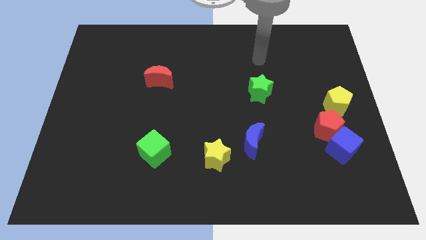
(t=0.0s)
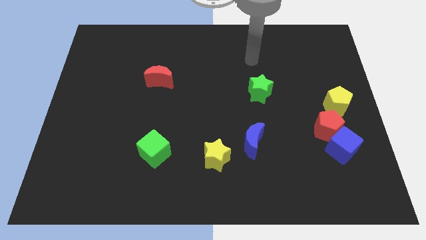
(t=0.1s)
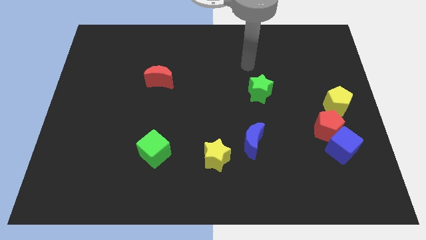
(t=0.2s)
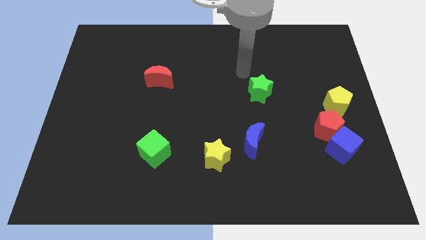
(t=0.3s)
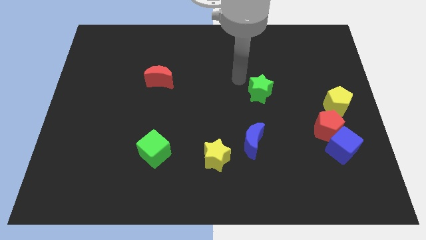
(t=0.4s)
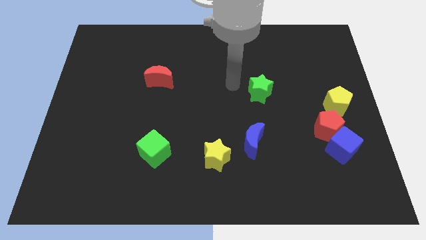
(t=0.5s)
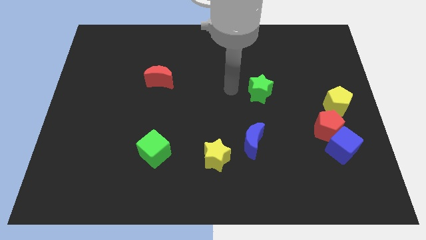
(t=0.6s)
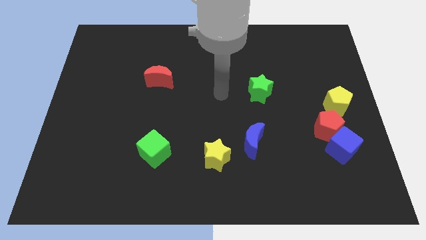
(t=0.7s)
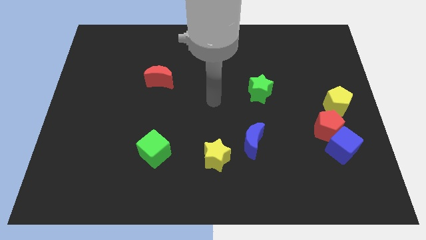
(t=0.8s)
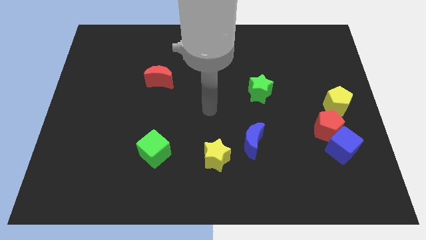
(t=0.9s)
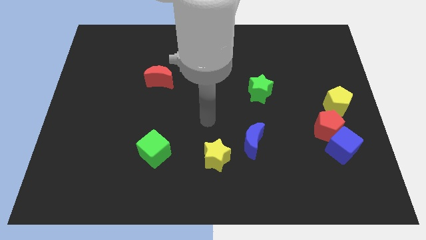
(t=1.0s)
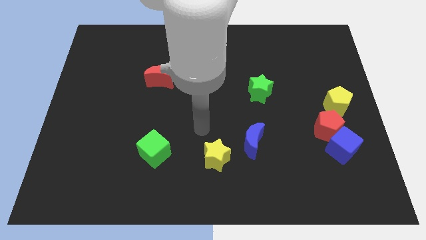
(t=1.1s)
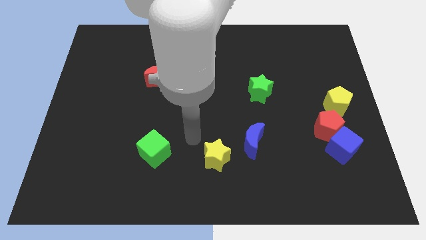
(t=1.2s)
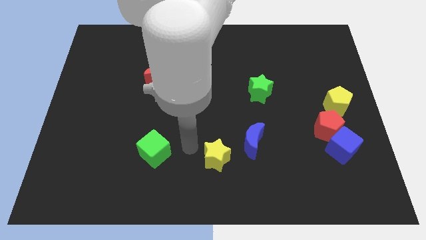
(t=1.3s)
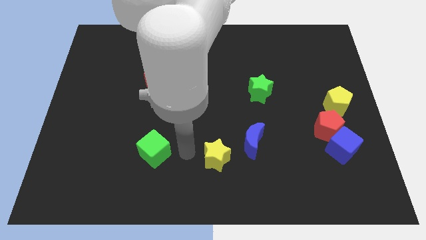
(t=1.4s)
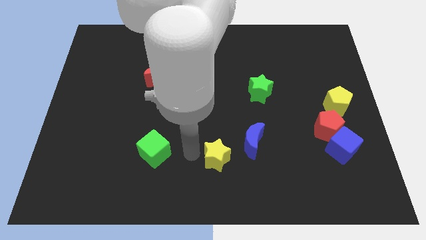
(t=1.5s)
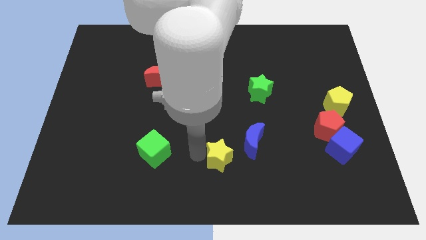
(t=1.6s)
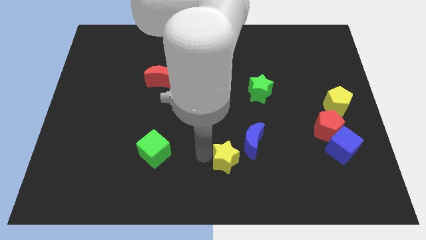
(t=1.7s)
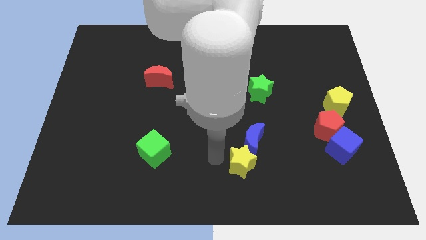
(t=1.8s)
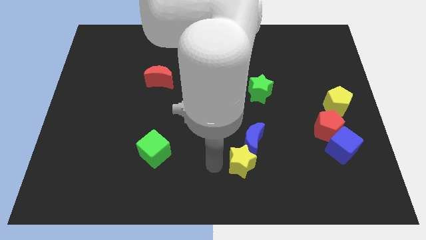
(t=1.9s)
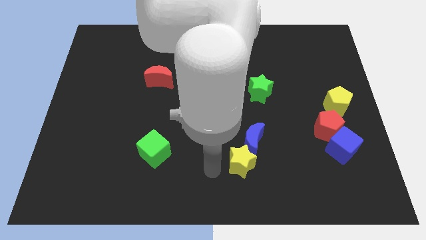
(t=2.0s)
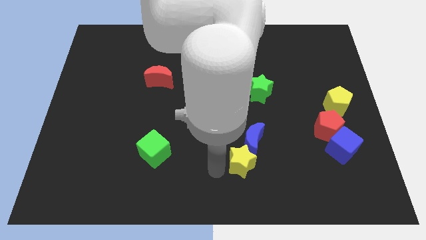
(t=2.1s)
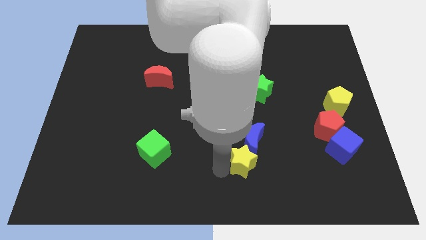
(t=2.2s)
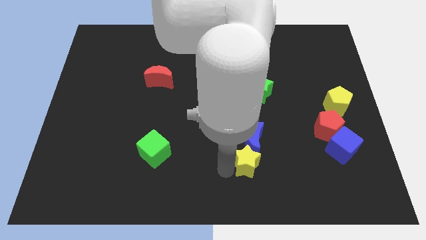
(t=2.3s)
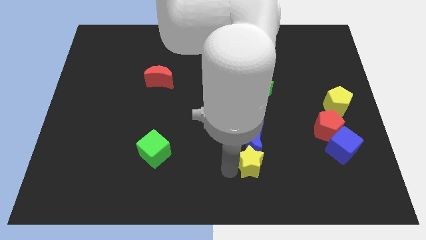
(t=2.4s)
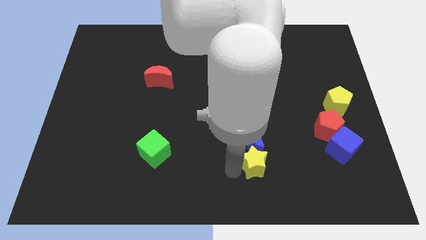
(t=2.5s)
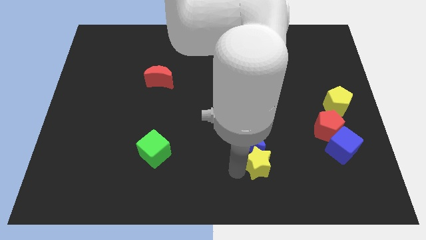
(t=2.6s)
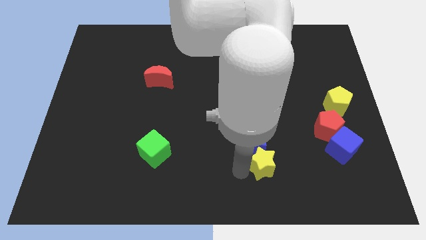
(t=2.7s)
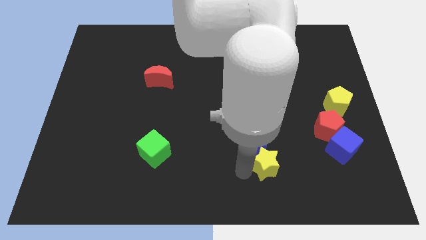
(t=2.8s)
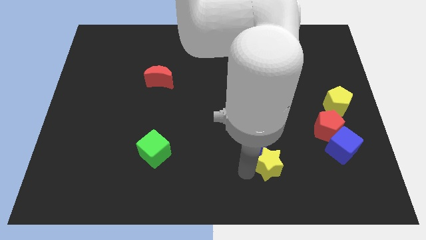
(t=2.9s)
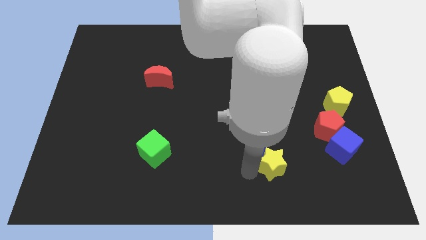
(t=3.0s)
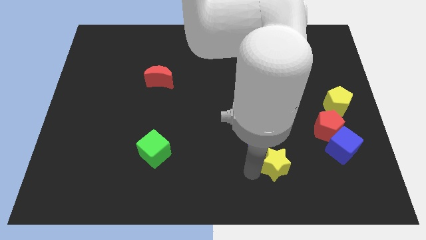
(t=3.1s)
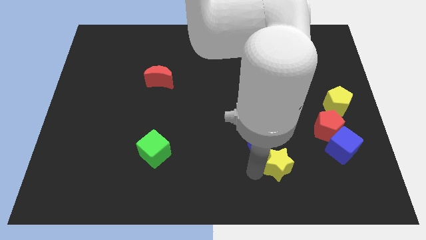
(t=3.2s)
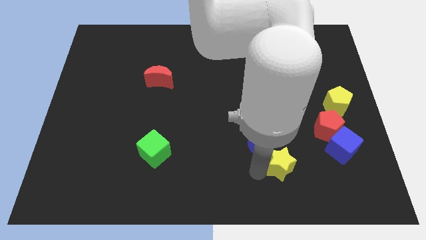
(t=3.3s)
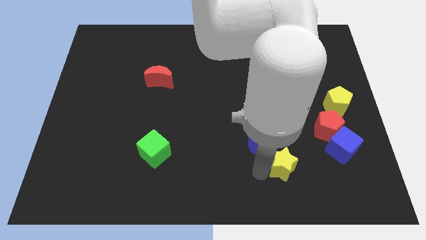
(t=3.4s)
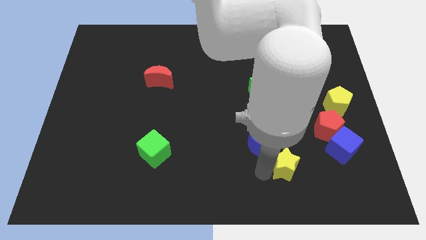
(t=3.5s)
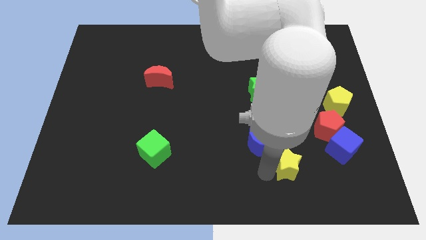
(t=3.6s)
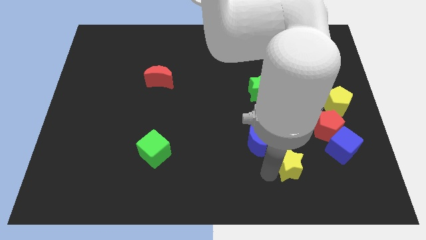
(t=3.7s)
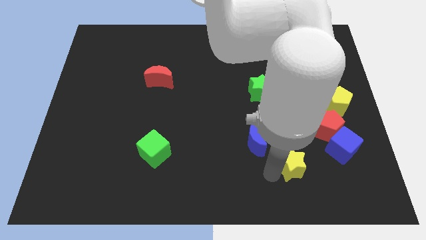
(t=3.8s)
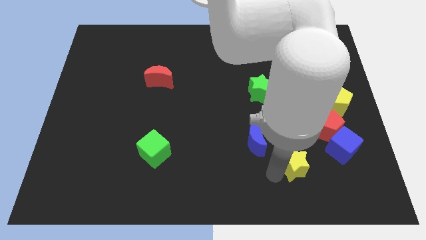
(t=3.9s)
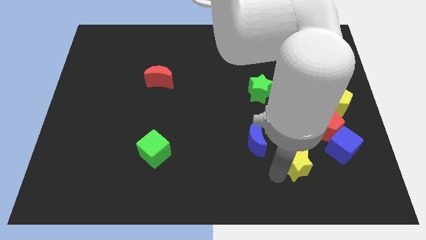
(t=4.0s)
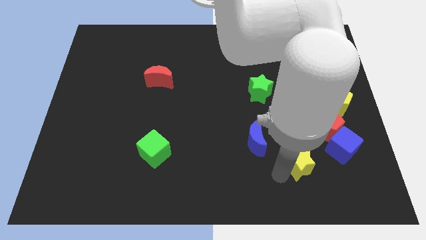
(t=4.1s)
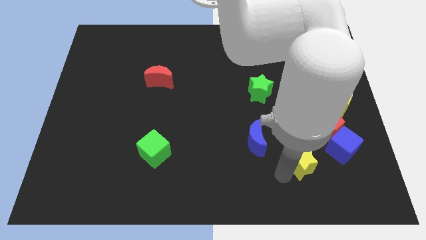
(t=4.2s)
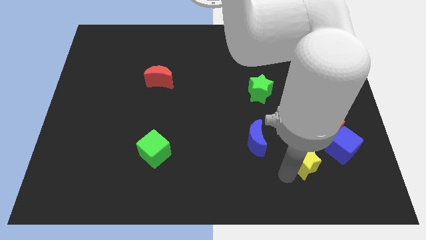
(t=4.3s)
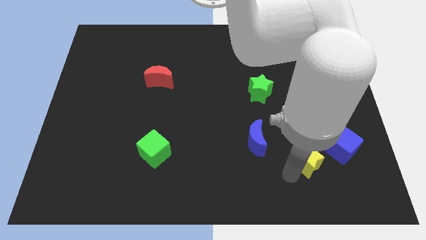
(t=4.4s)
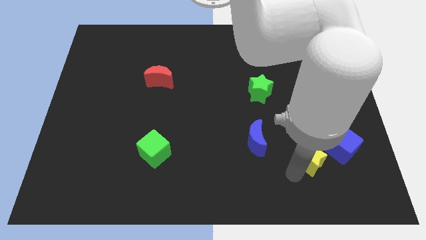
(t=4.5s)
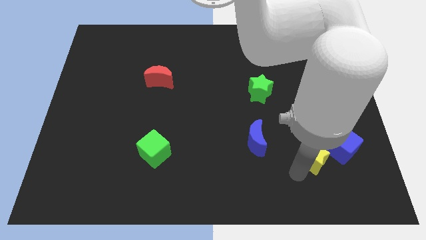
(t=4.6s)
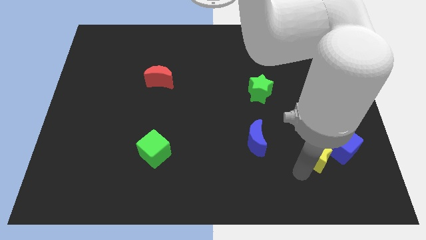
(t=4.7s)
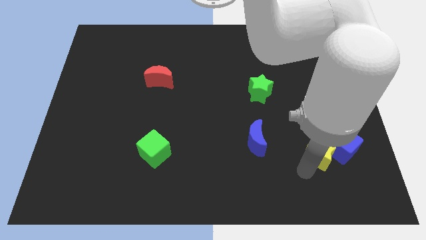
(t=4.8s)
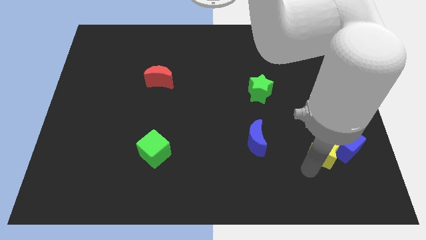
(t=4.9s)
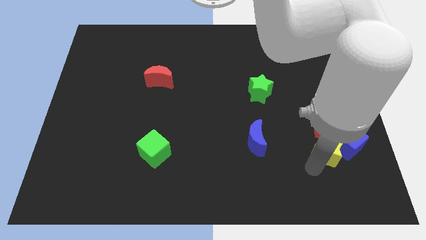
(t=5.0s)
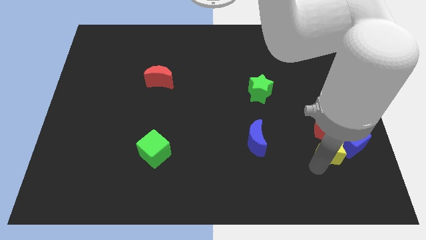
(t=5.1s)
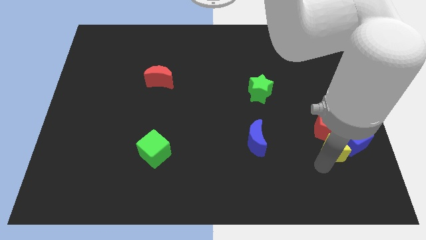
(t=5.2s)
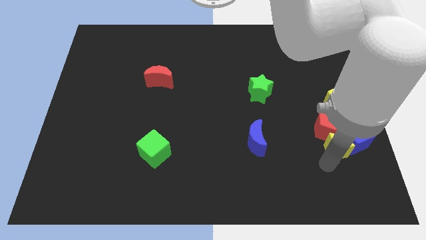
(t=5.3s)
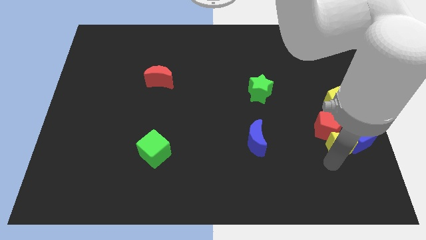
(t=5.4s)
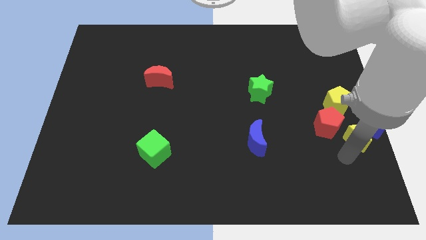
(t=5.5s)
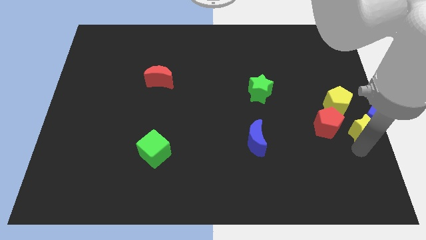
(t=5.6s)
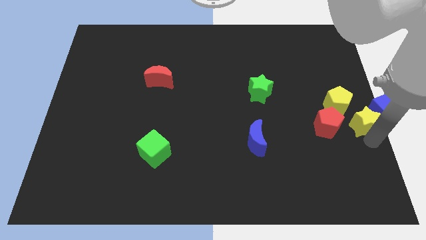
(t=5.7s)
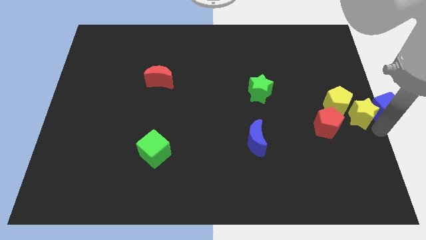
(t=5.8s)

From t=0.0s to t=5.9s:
slide the yellow star close to the yellow pentagon

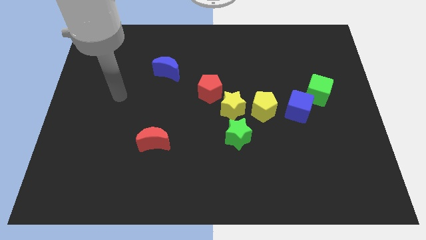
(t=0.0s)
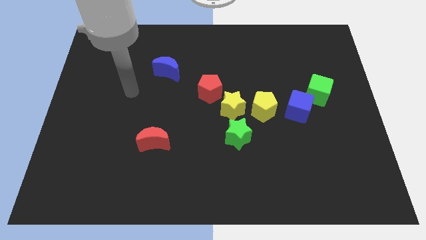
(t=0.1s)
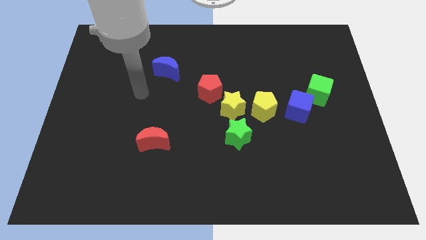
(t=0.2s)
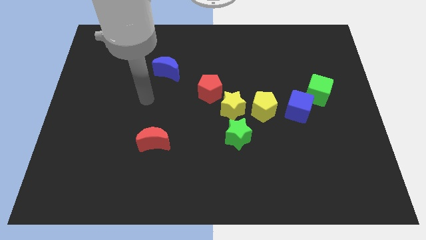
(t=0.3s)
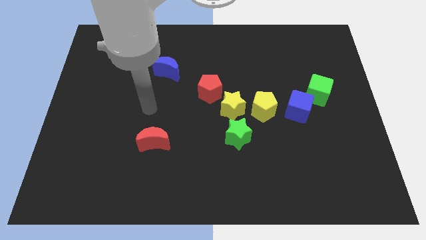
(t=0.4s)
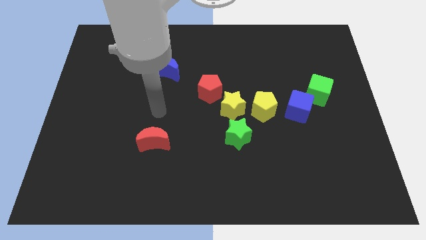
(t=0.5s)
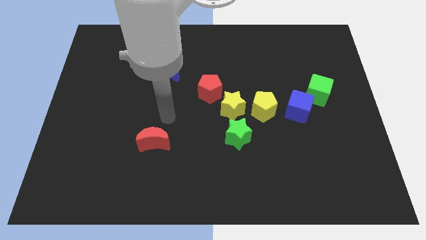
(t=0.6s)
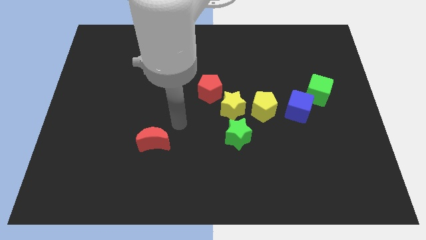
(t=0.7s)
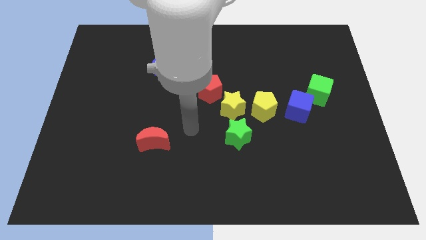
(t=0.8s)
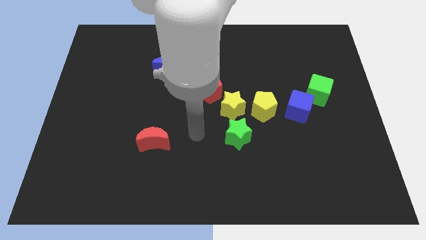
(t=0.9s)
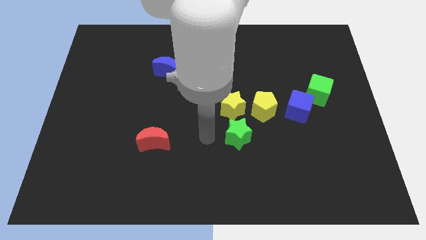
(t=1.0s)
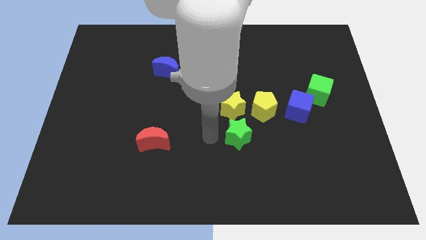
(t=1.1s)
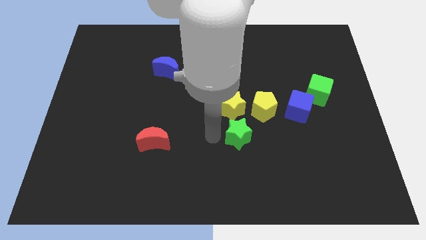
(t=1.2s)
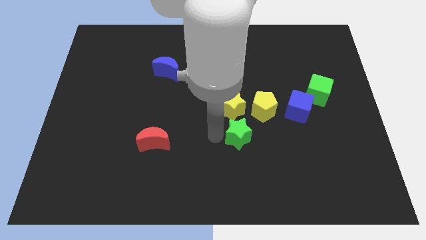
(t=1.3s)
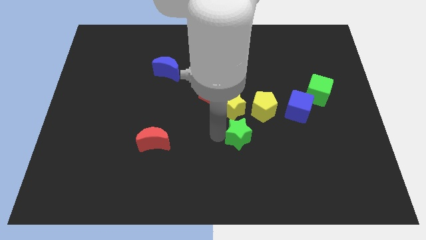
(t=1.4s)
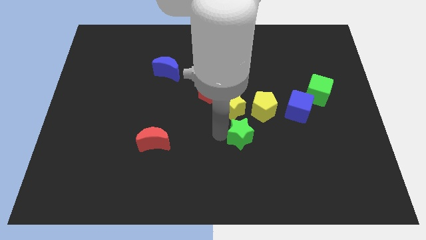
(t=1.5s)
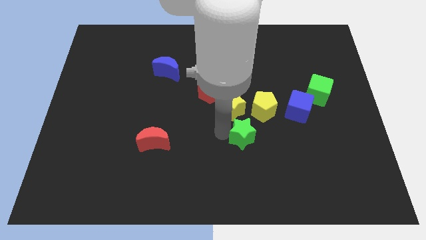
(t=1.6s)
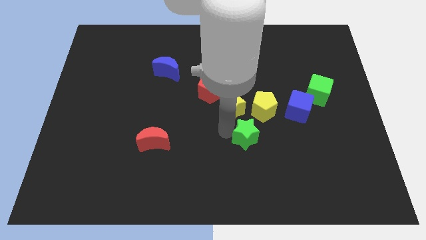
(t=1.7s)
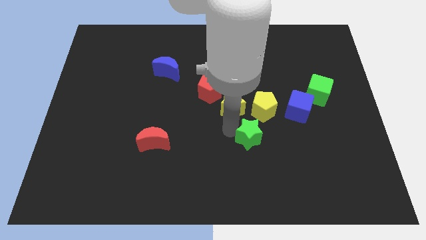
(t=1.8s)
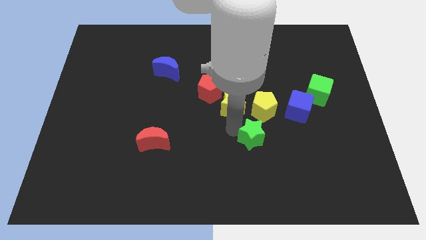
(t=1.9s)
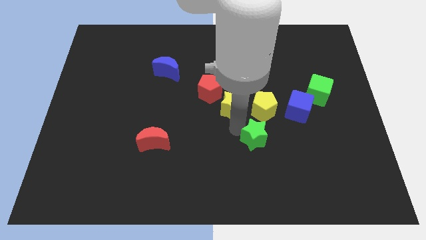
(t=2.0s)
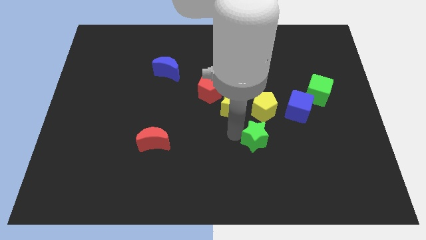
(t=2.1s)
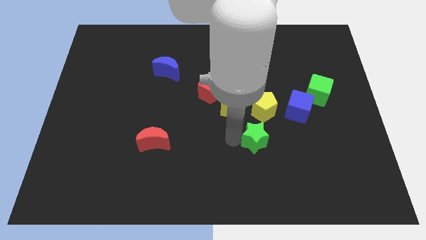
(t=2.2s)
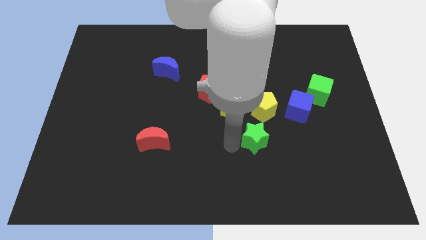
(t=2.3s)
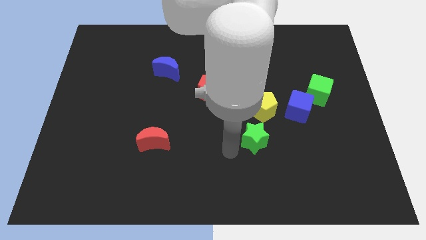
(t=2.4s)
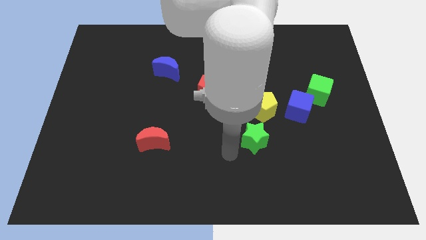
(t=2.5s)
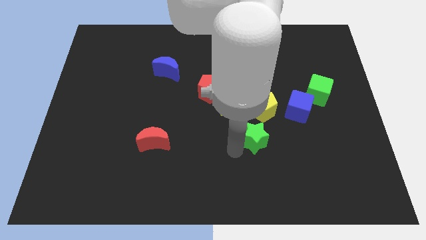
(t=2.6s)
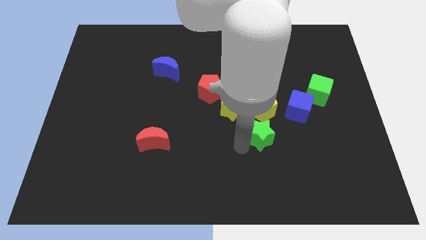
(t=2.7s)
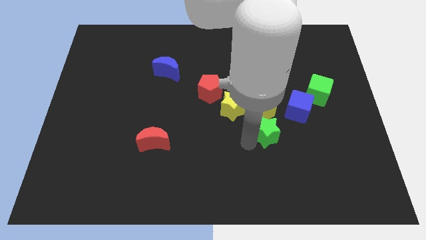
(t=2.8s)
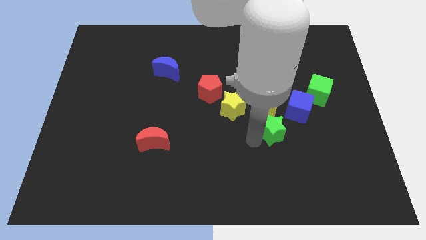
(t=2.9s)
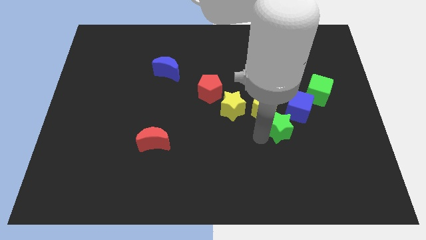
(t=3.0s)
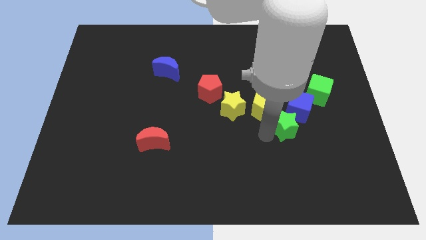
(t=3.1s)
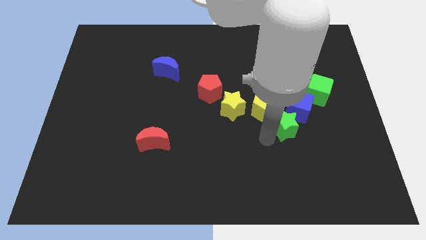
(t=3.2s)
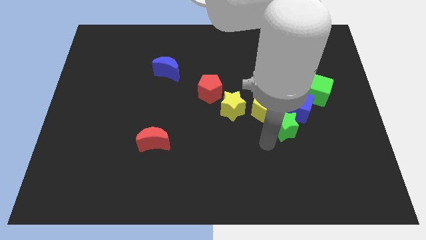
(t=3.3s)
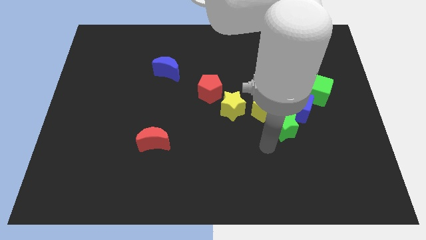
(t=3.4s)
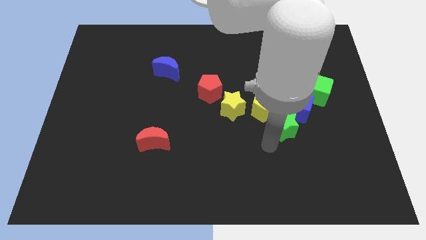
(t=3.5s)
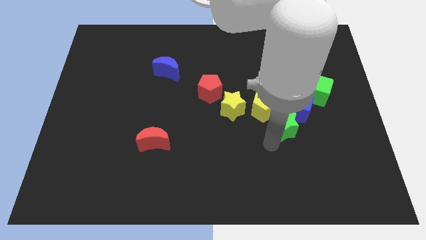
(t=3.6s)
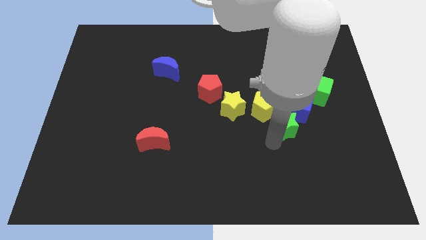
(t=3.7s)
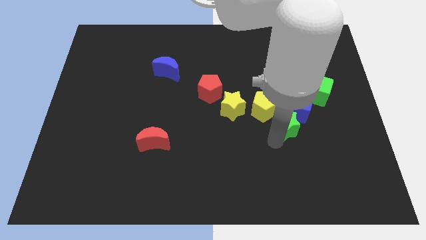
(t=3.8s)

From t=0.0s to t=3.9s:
slide the green star next to the blue cube
